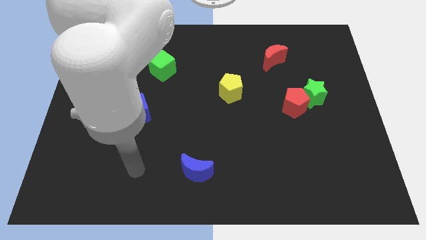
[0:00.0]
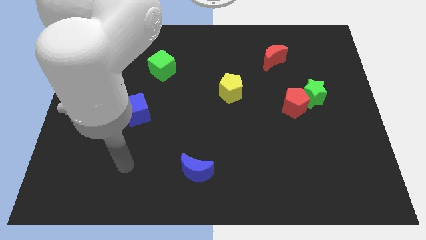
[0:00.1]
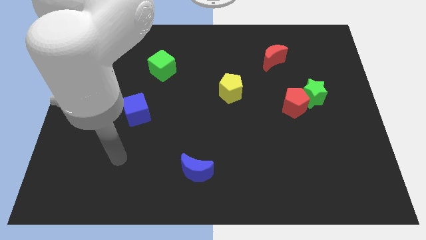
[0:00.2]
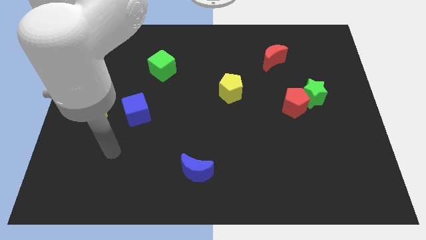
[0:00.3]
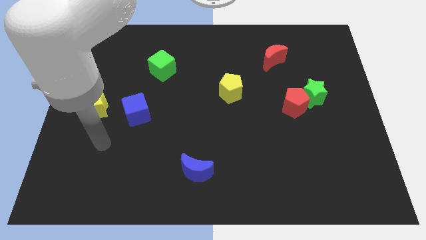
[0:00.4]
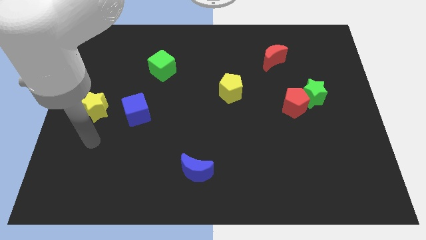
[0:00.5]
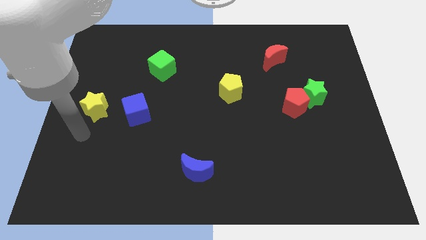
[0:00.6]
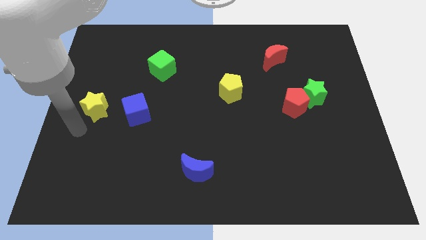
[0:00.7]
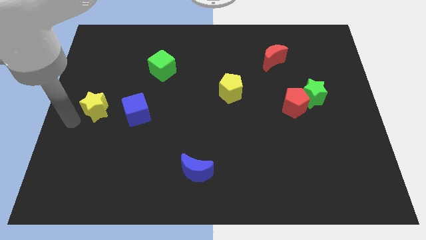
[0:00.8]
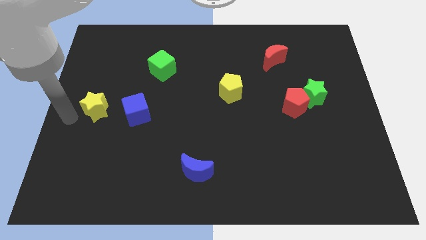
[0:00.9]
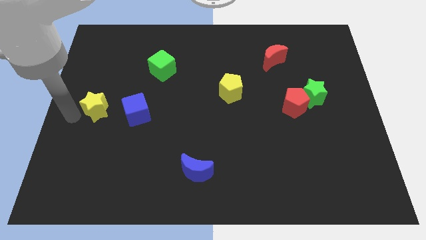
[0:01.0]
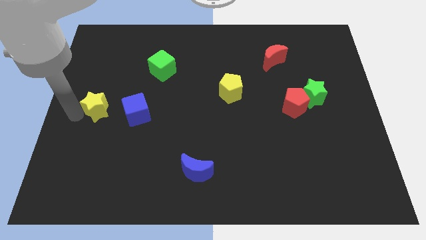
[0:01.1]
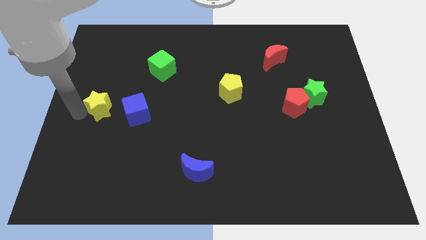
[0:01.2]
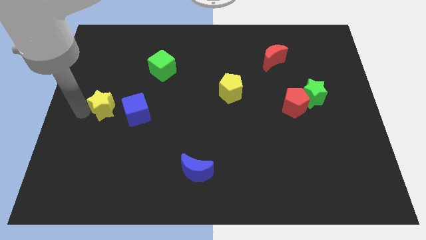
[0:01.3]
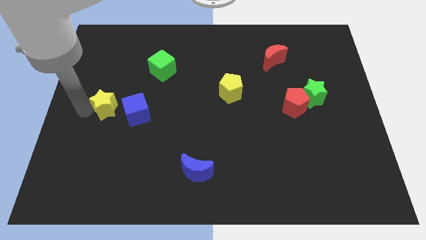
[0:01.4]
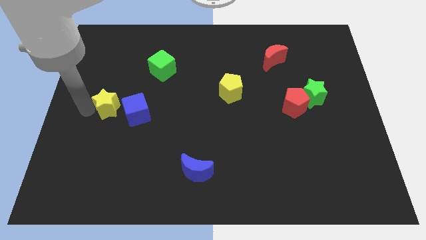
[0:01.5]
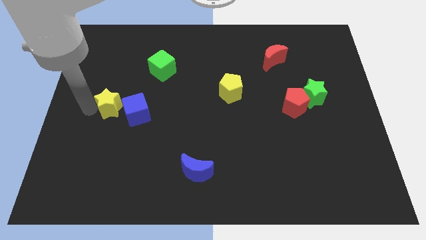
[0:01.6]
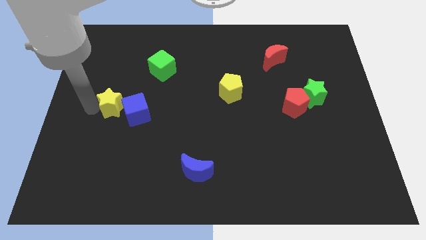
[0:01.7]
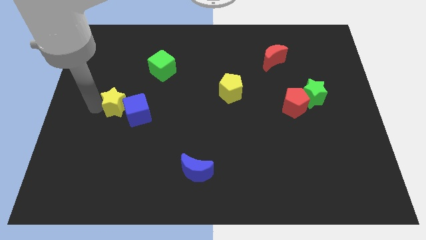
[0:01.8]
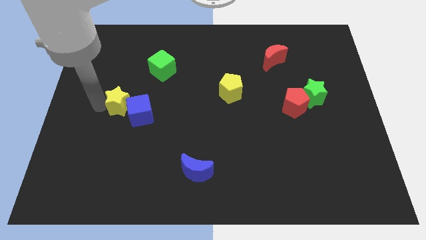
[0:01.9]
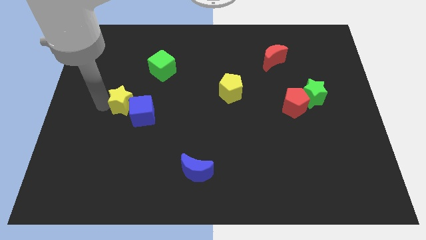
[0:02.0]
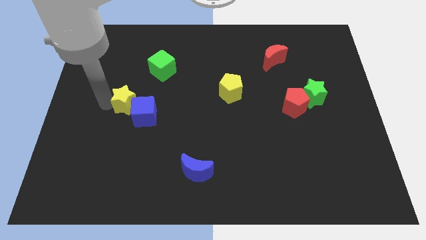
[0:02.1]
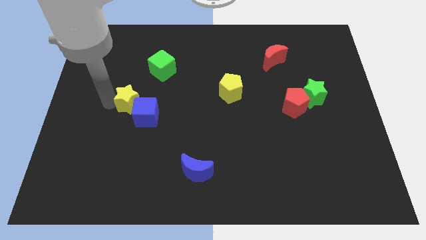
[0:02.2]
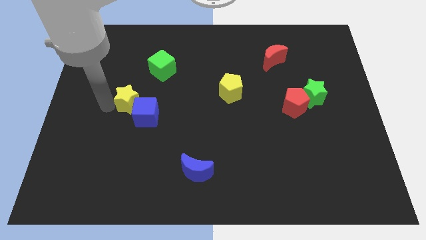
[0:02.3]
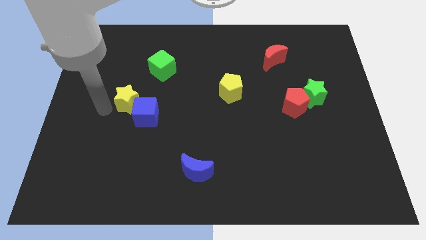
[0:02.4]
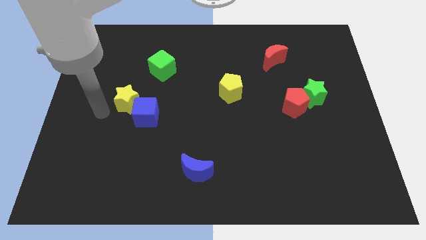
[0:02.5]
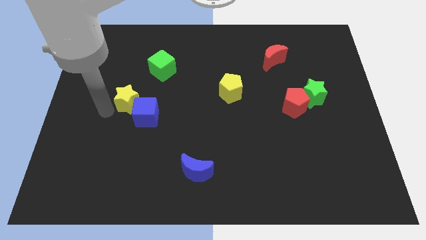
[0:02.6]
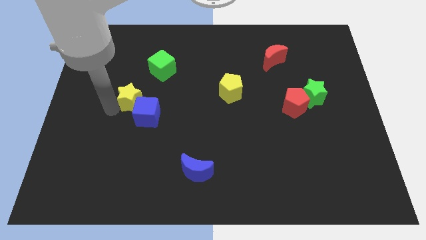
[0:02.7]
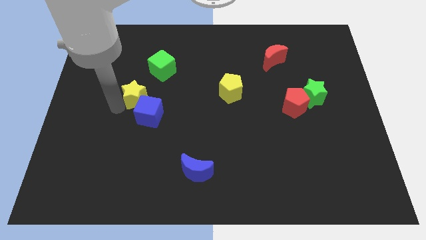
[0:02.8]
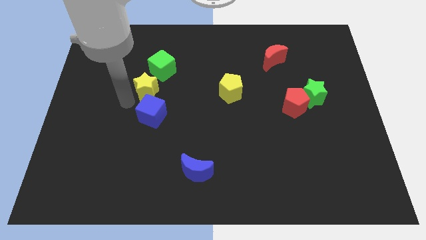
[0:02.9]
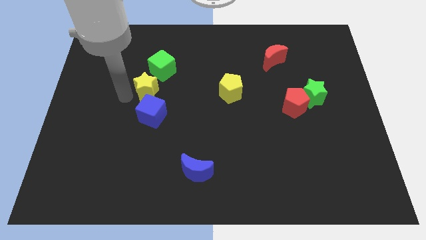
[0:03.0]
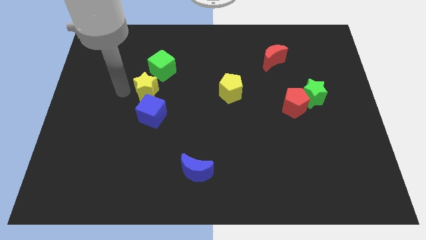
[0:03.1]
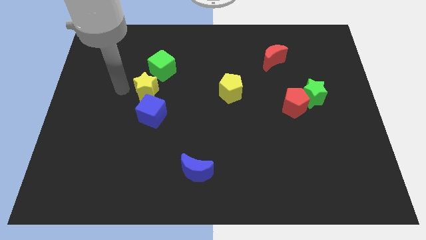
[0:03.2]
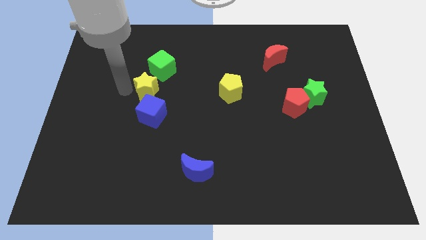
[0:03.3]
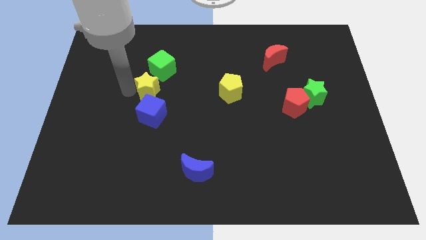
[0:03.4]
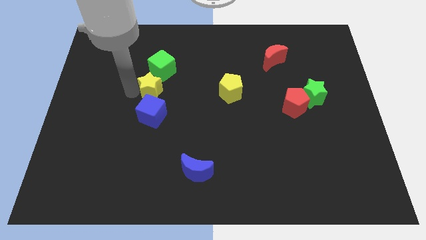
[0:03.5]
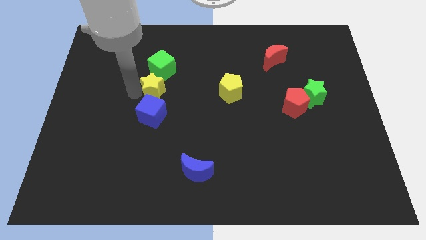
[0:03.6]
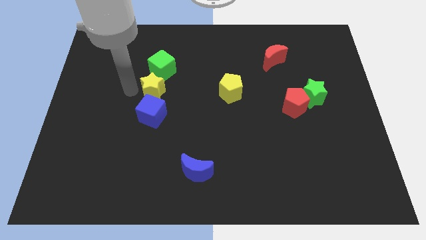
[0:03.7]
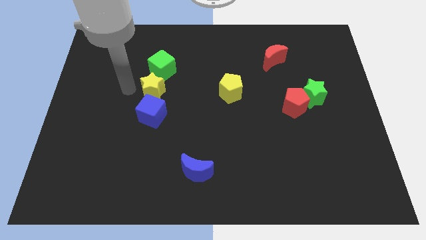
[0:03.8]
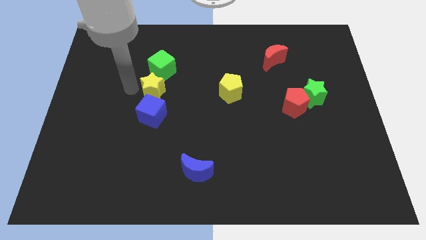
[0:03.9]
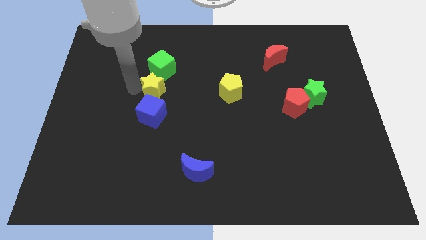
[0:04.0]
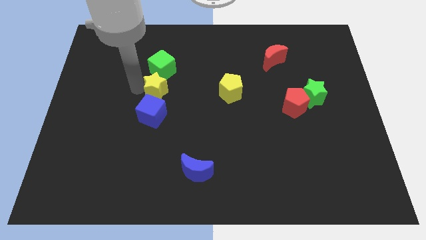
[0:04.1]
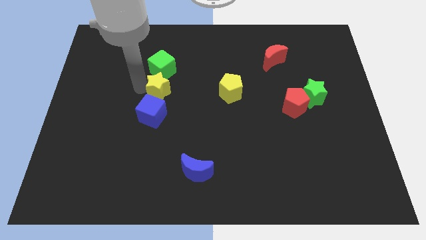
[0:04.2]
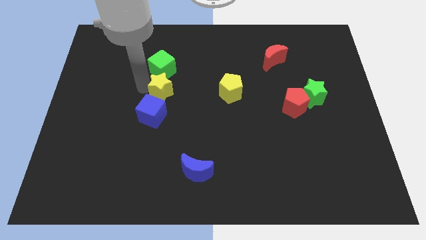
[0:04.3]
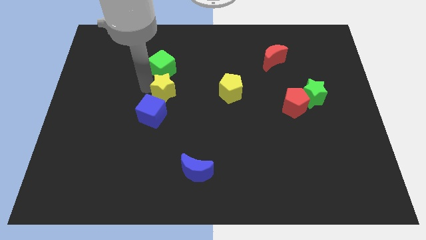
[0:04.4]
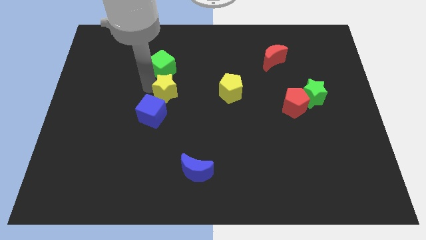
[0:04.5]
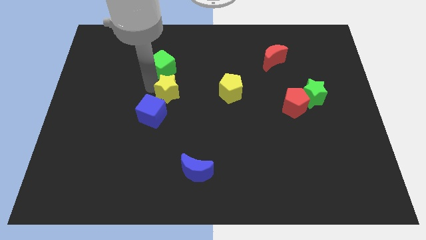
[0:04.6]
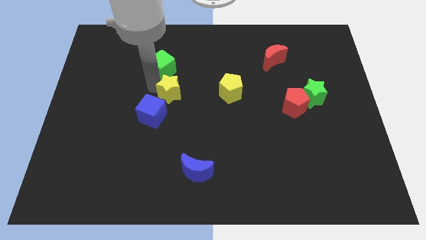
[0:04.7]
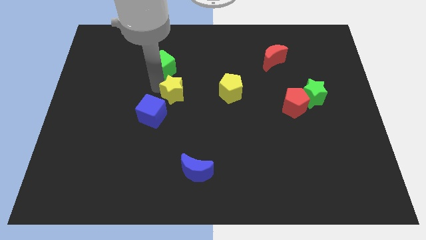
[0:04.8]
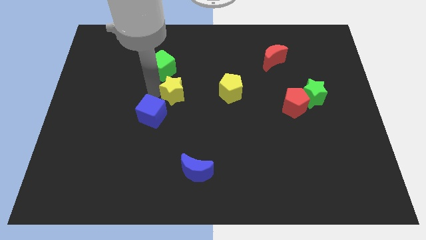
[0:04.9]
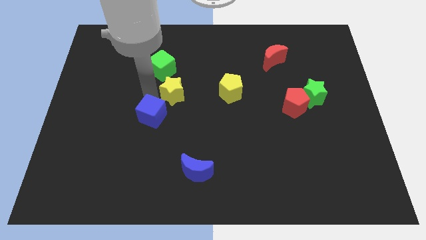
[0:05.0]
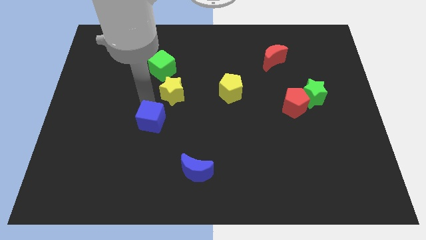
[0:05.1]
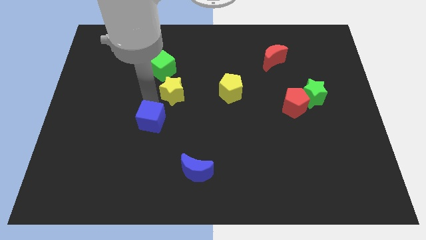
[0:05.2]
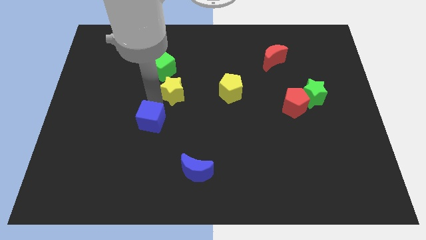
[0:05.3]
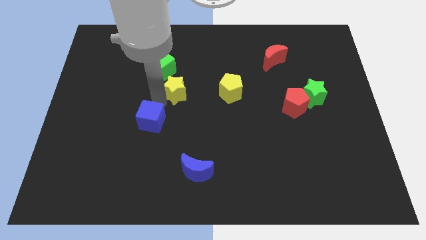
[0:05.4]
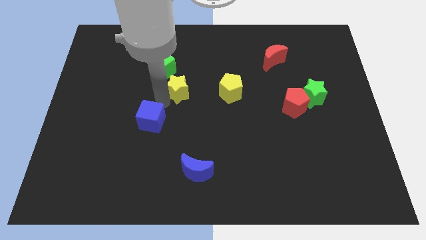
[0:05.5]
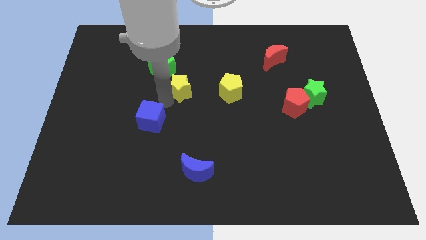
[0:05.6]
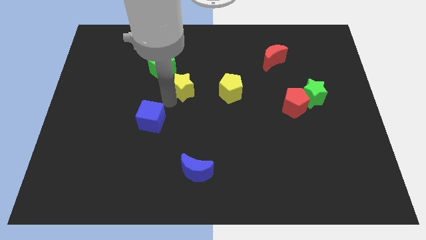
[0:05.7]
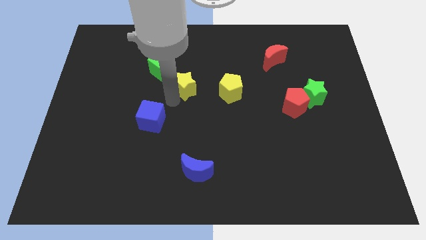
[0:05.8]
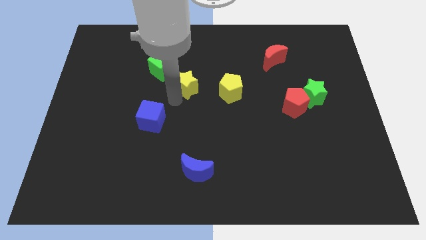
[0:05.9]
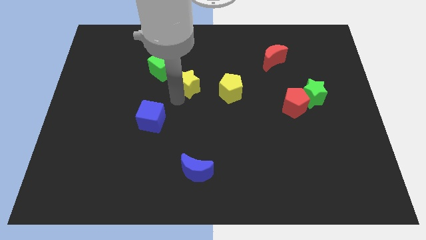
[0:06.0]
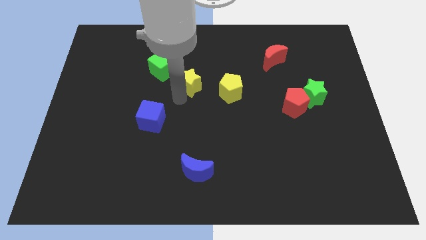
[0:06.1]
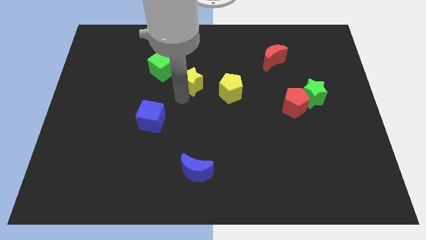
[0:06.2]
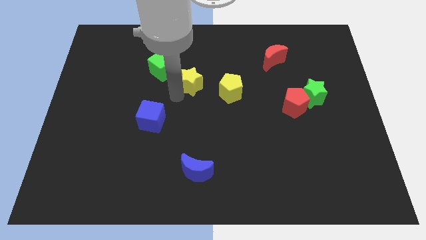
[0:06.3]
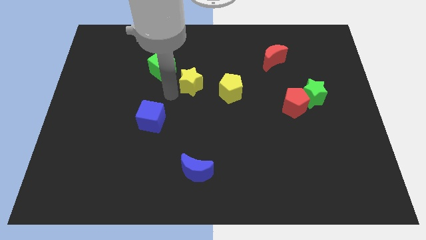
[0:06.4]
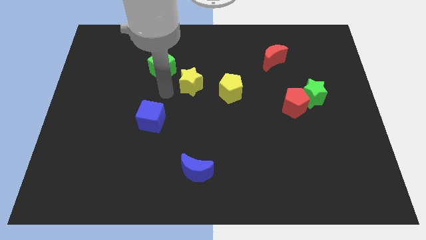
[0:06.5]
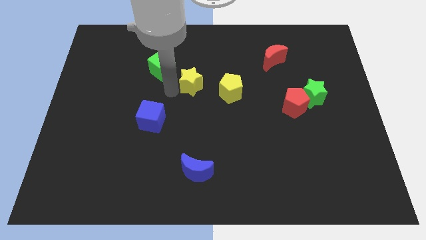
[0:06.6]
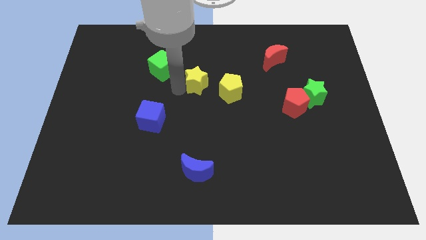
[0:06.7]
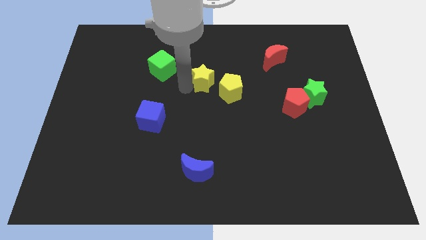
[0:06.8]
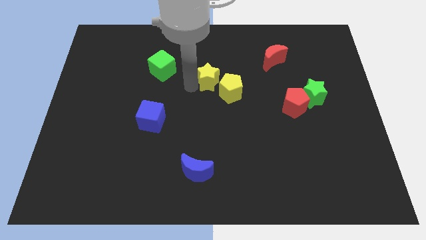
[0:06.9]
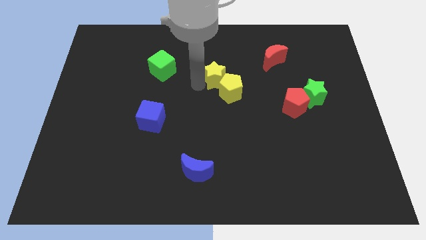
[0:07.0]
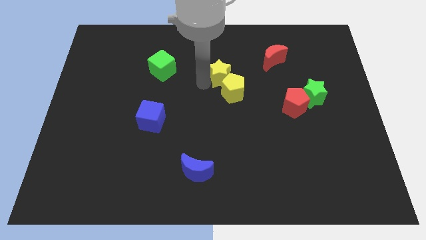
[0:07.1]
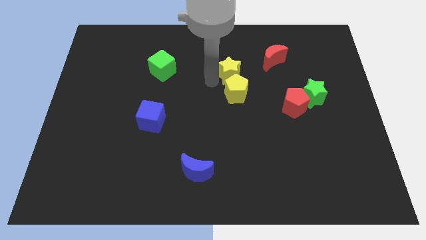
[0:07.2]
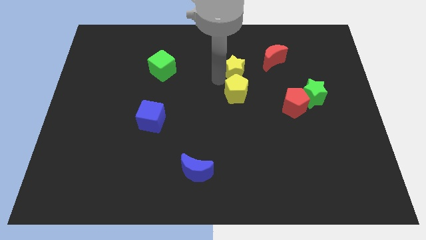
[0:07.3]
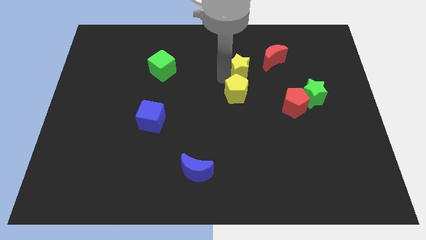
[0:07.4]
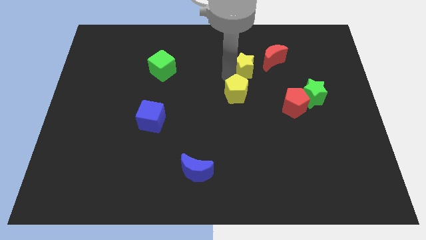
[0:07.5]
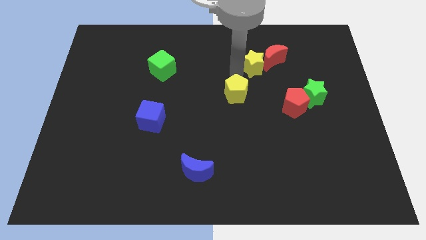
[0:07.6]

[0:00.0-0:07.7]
slide the yellow star close to the red moon

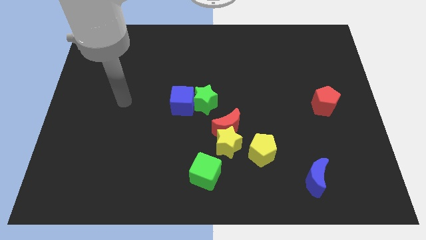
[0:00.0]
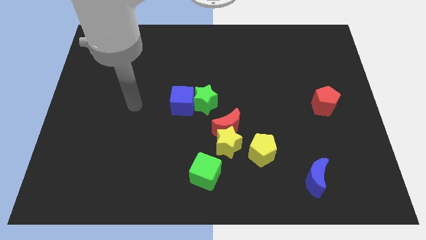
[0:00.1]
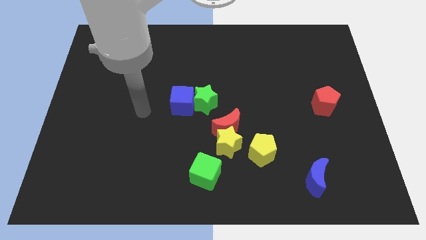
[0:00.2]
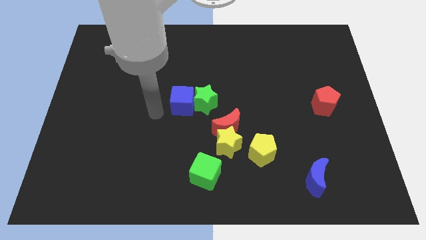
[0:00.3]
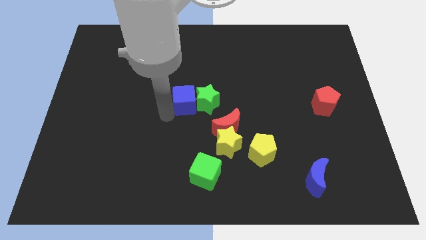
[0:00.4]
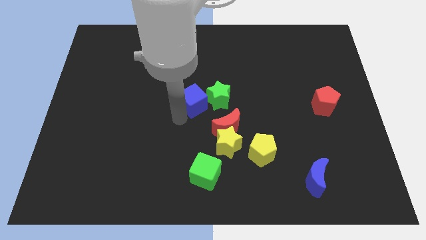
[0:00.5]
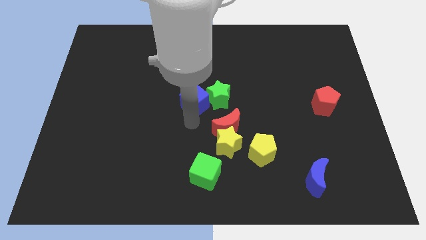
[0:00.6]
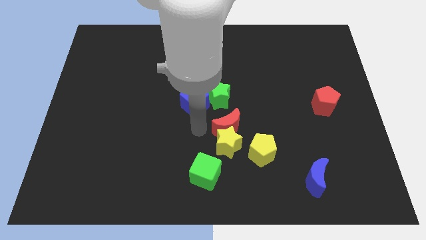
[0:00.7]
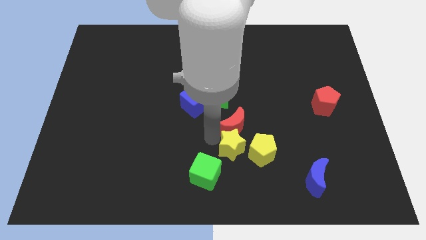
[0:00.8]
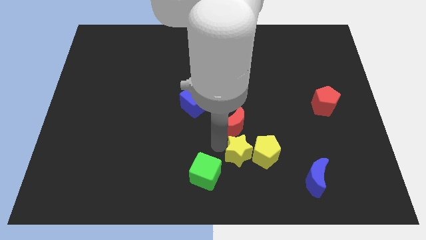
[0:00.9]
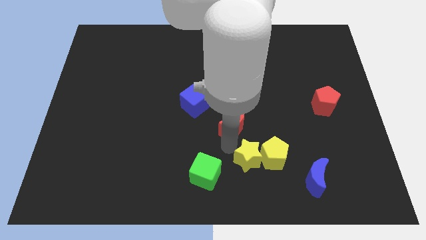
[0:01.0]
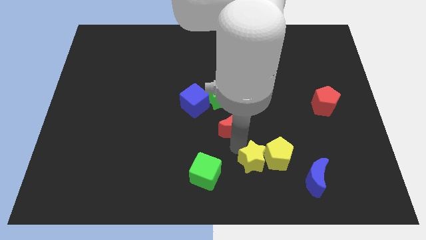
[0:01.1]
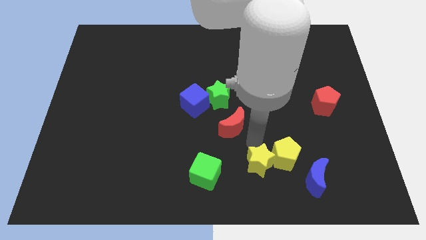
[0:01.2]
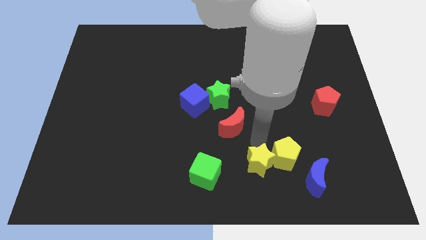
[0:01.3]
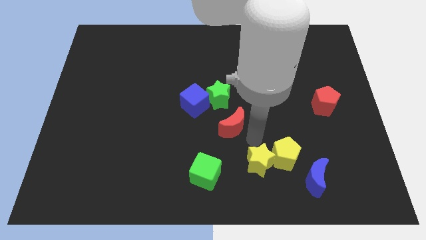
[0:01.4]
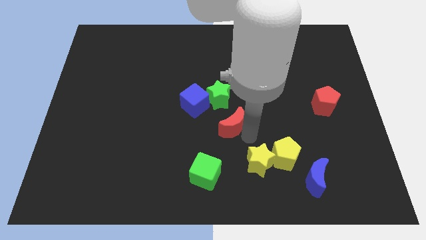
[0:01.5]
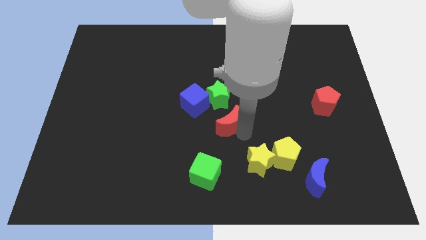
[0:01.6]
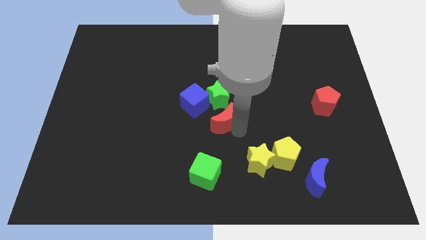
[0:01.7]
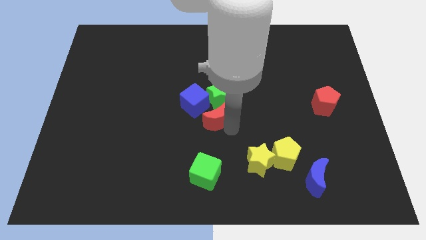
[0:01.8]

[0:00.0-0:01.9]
slide the red moon towards the green star
